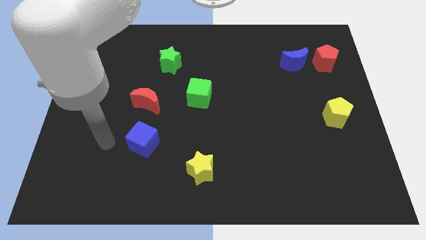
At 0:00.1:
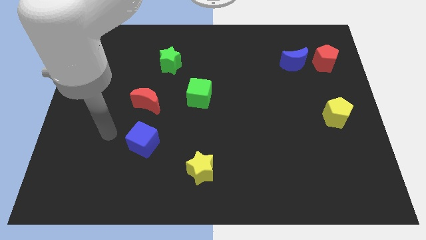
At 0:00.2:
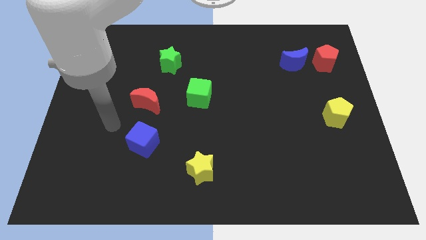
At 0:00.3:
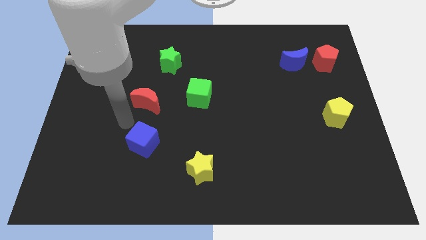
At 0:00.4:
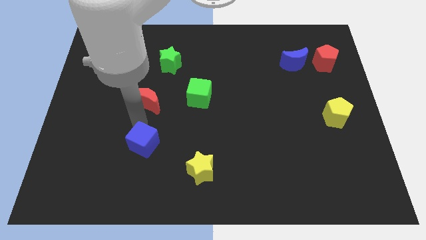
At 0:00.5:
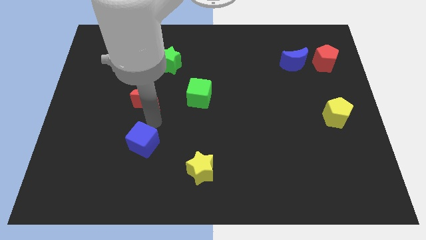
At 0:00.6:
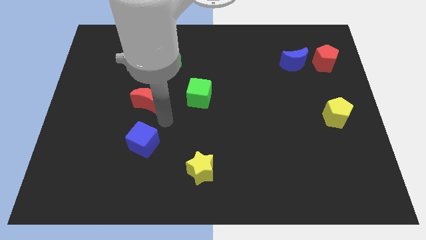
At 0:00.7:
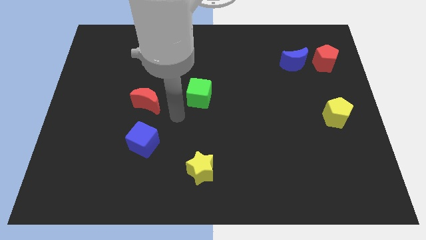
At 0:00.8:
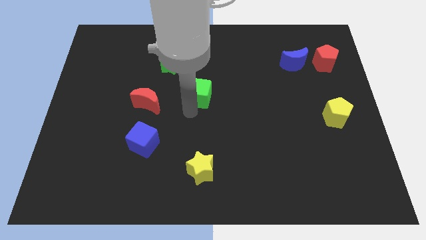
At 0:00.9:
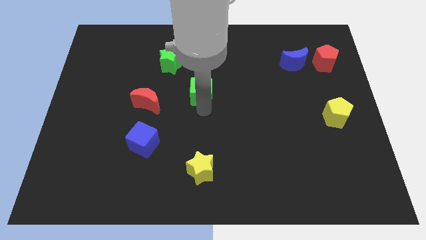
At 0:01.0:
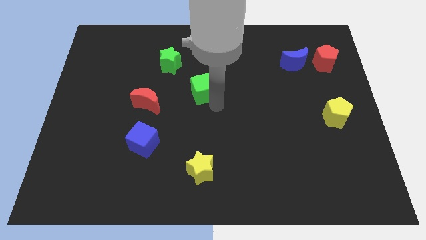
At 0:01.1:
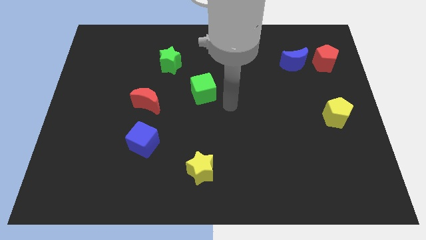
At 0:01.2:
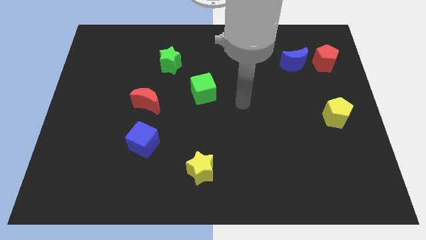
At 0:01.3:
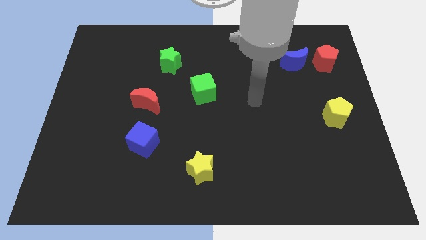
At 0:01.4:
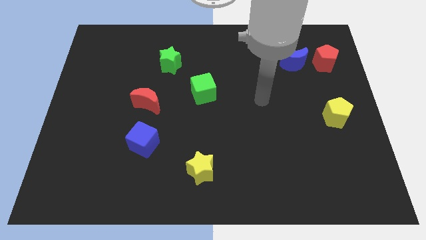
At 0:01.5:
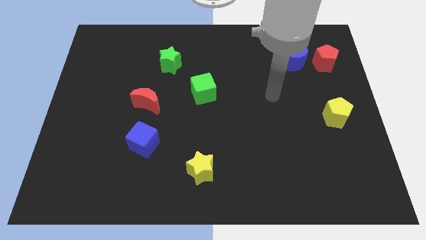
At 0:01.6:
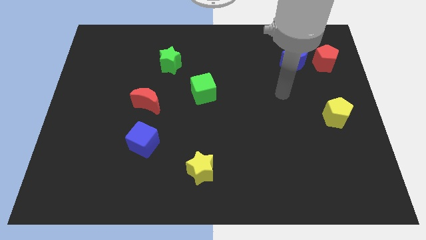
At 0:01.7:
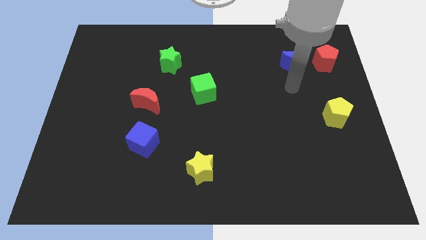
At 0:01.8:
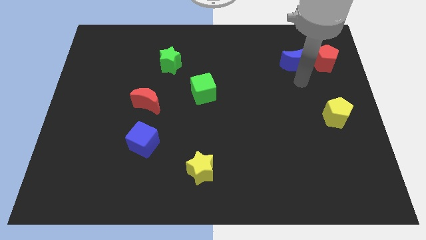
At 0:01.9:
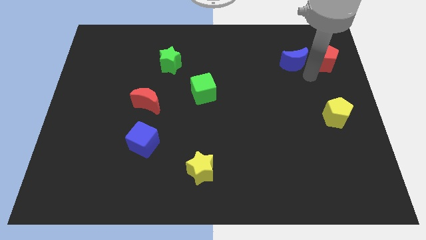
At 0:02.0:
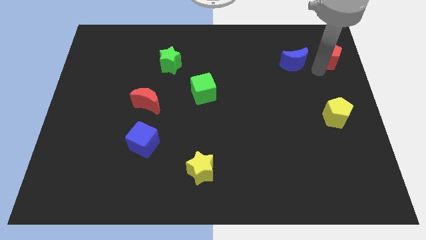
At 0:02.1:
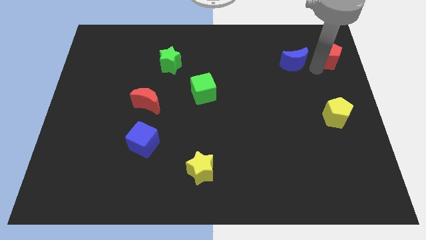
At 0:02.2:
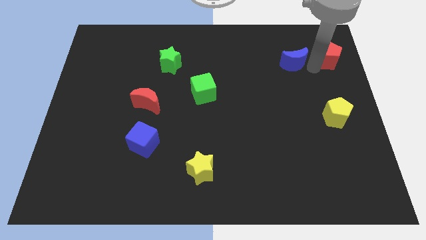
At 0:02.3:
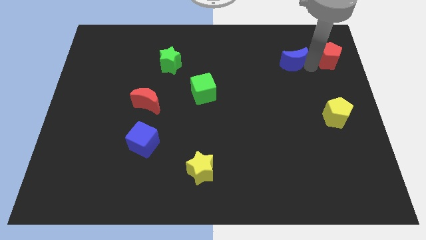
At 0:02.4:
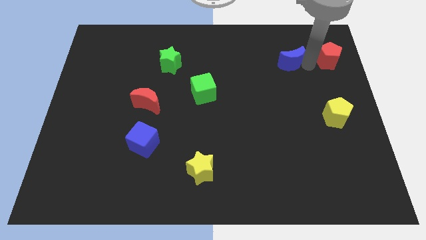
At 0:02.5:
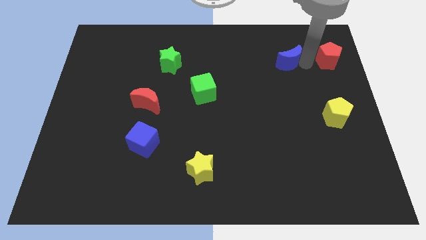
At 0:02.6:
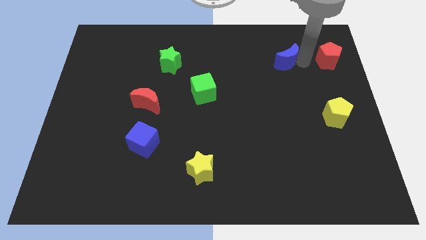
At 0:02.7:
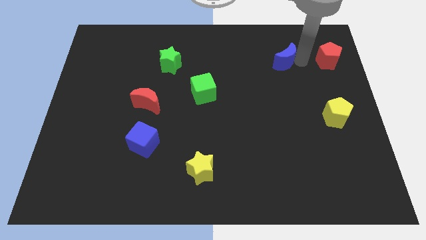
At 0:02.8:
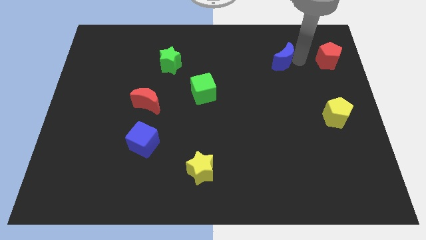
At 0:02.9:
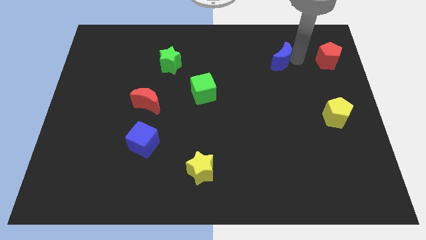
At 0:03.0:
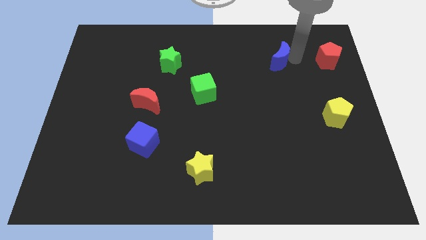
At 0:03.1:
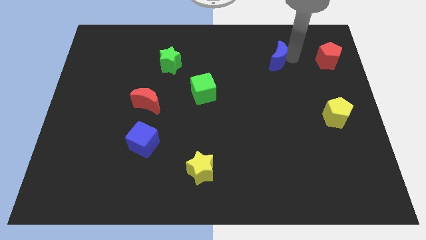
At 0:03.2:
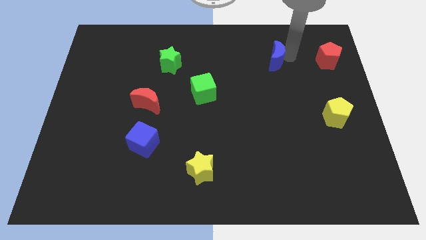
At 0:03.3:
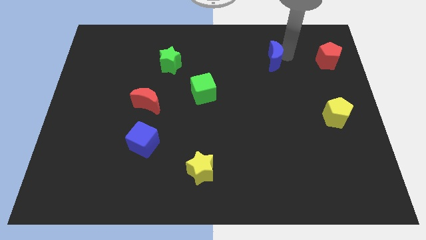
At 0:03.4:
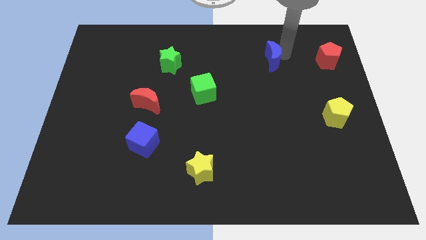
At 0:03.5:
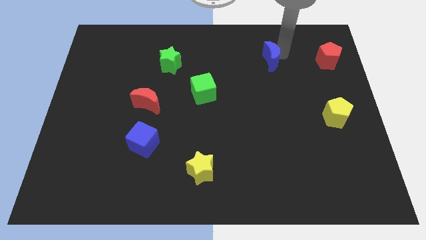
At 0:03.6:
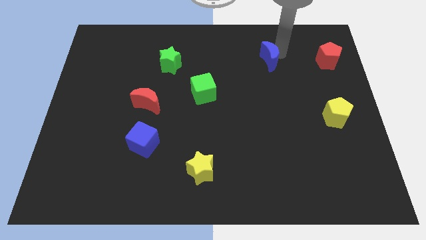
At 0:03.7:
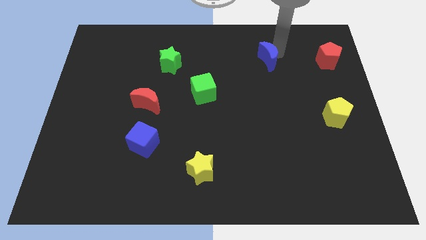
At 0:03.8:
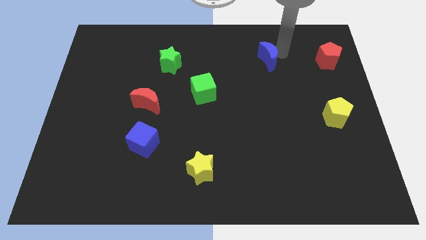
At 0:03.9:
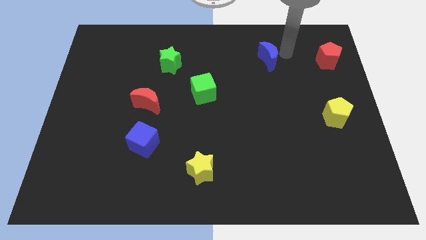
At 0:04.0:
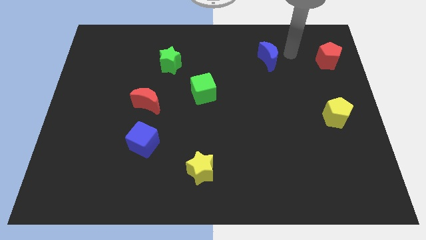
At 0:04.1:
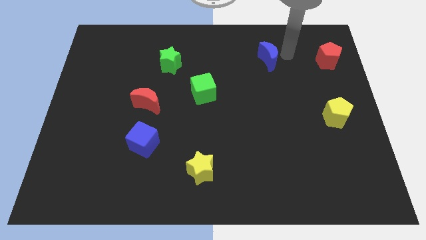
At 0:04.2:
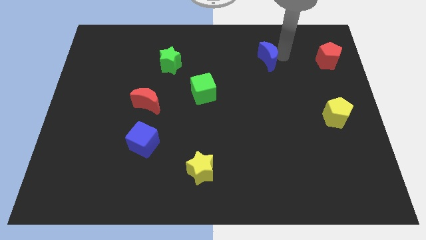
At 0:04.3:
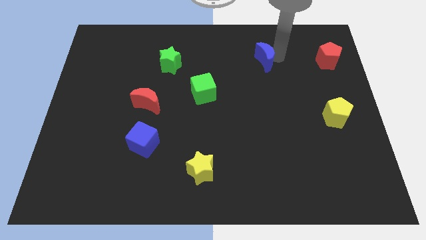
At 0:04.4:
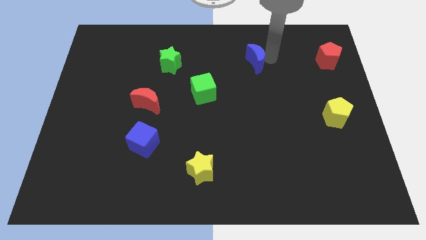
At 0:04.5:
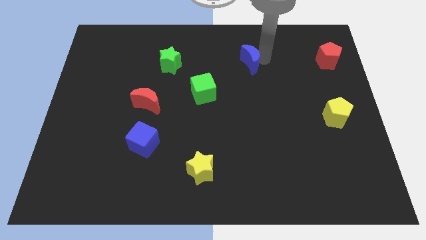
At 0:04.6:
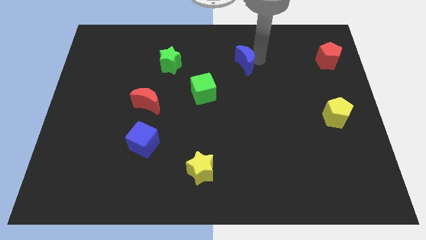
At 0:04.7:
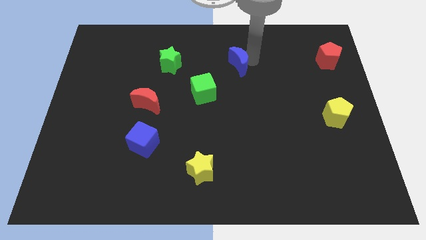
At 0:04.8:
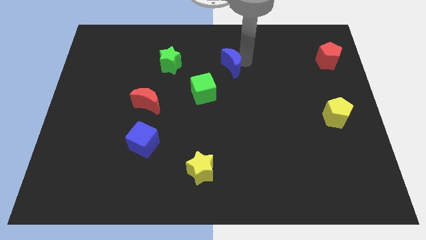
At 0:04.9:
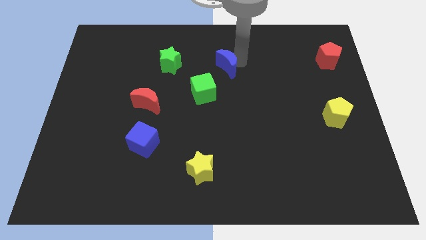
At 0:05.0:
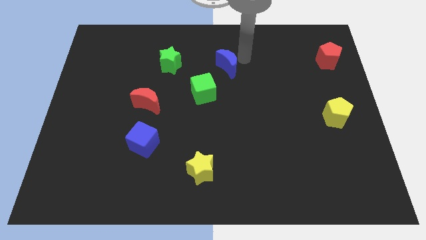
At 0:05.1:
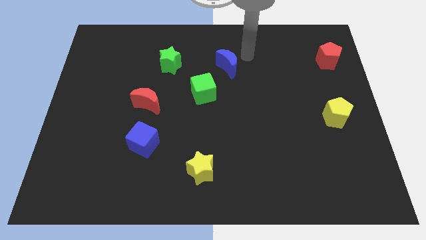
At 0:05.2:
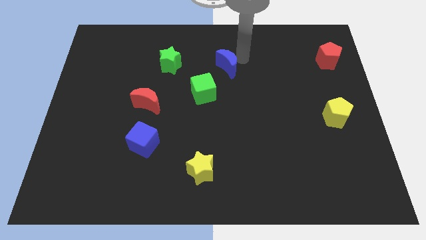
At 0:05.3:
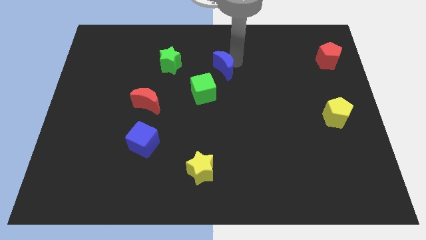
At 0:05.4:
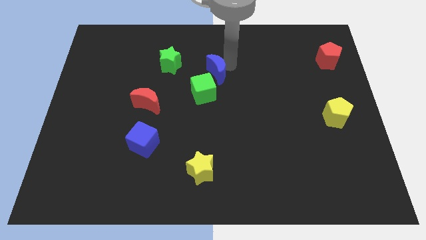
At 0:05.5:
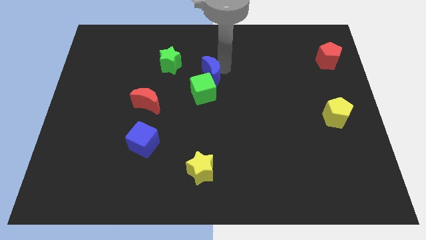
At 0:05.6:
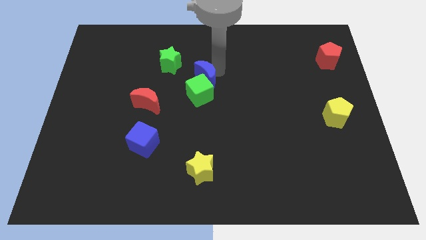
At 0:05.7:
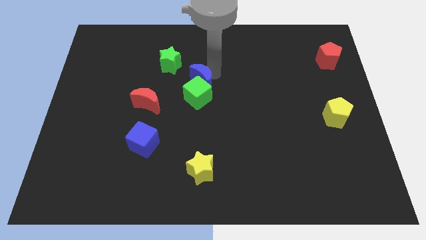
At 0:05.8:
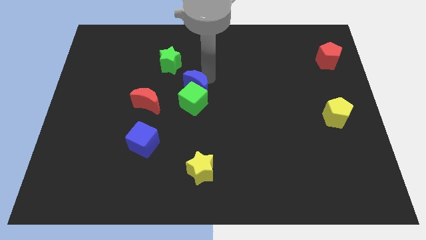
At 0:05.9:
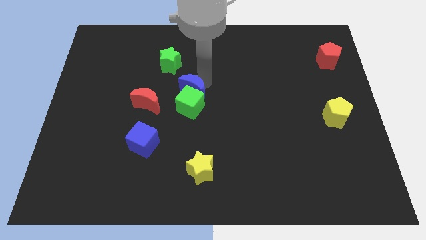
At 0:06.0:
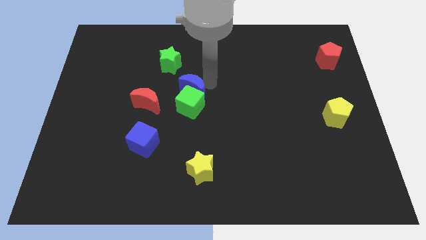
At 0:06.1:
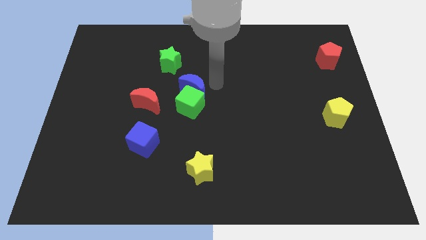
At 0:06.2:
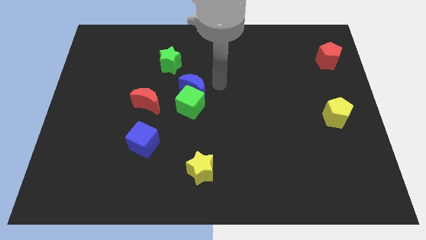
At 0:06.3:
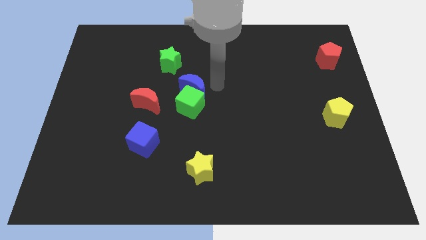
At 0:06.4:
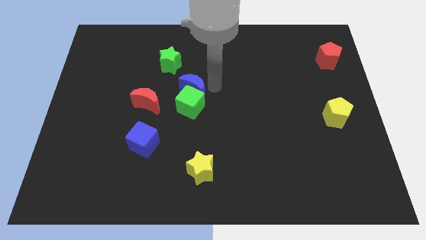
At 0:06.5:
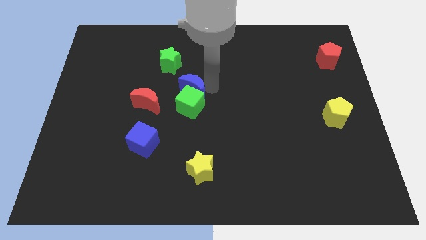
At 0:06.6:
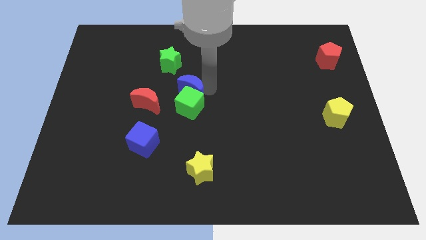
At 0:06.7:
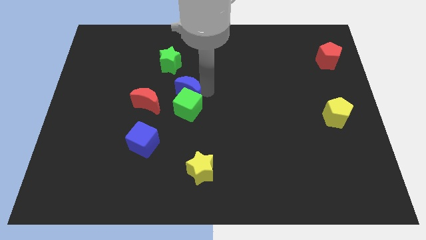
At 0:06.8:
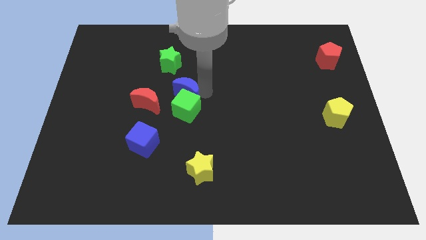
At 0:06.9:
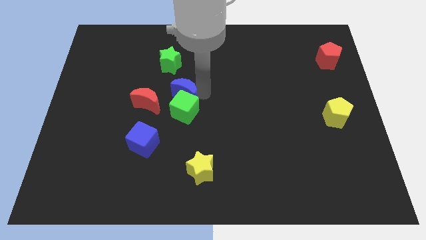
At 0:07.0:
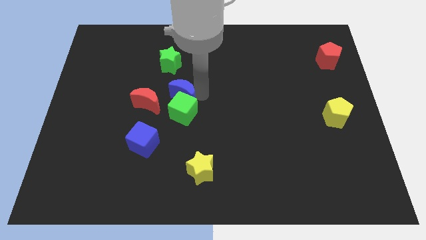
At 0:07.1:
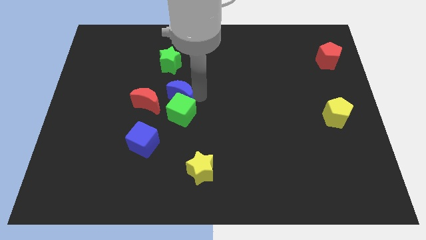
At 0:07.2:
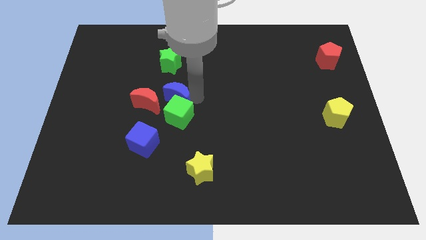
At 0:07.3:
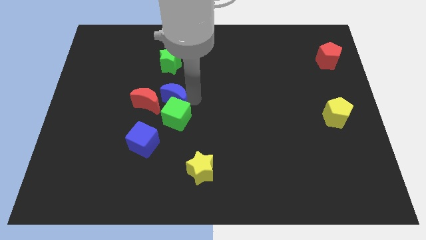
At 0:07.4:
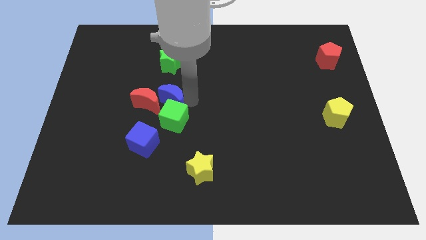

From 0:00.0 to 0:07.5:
move the blue moon towards the red moon
